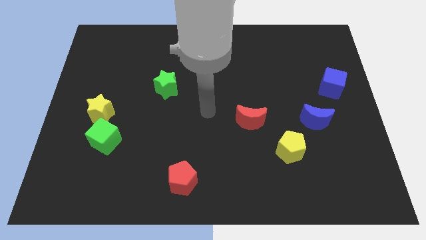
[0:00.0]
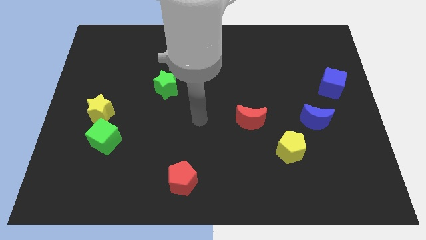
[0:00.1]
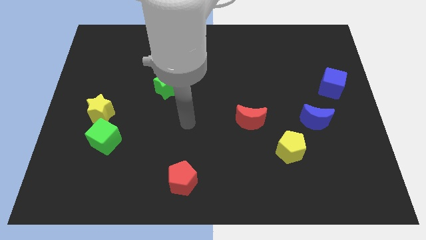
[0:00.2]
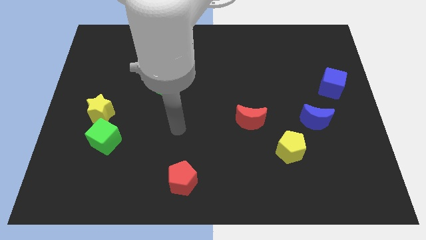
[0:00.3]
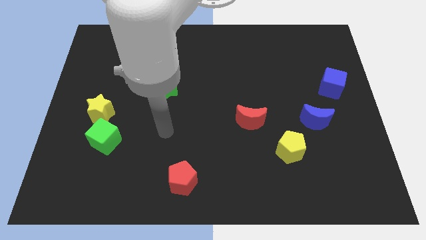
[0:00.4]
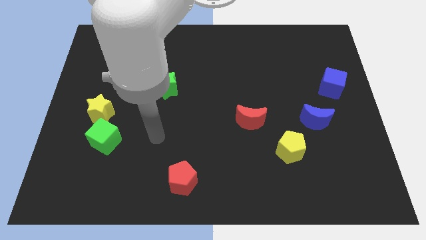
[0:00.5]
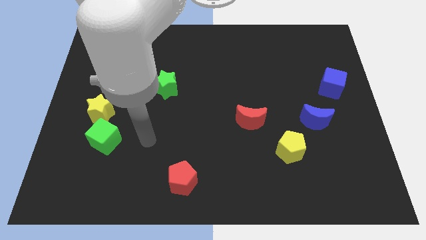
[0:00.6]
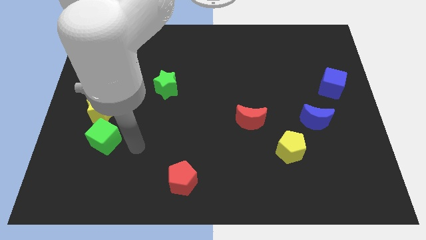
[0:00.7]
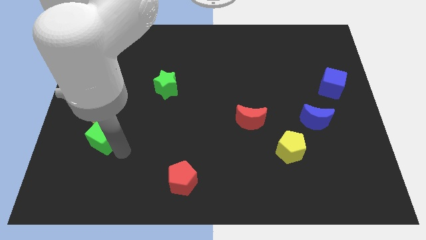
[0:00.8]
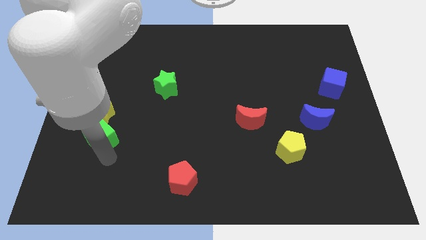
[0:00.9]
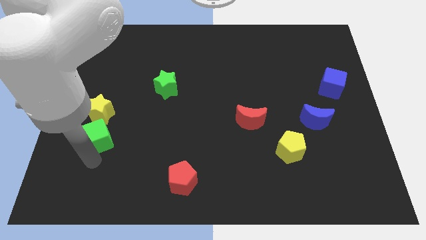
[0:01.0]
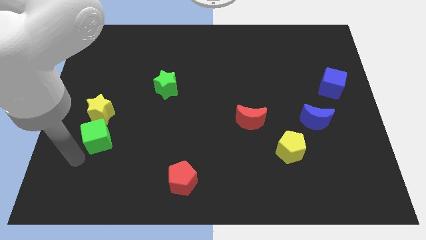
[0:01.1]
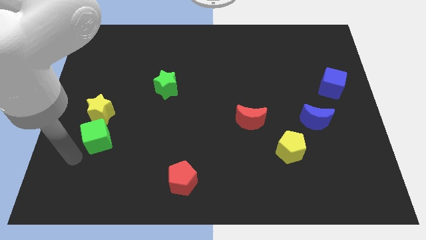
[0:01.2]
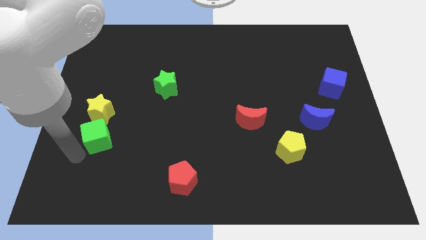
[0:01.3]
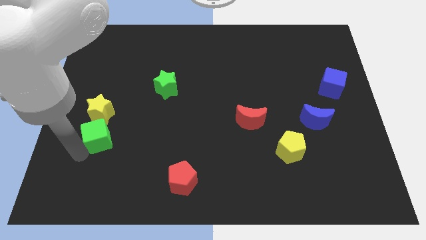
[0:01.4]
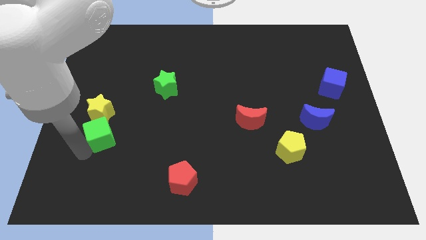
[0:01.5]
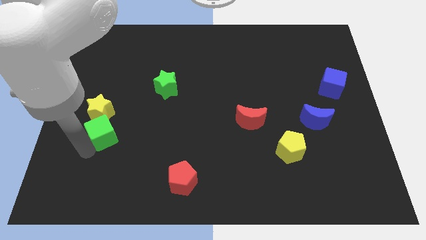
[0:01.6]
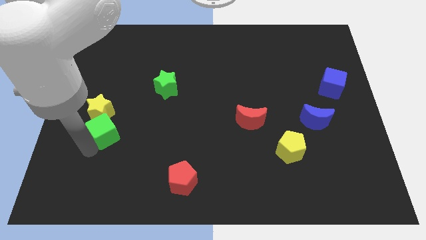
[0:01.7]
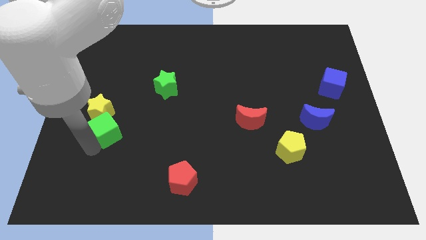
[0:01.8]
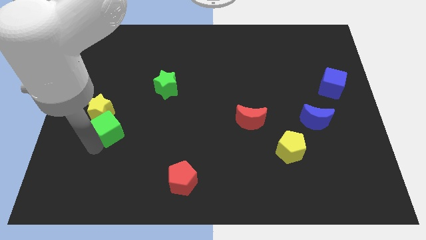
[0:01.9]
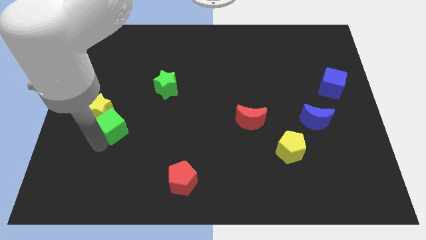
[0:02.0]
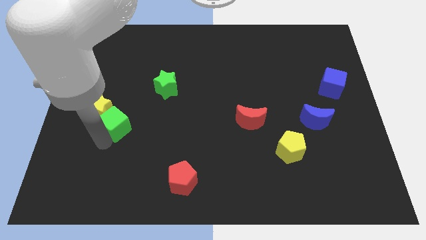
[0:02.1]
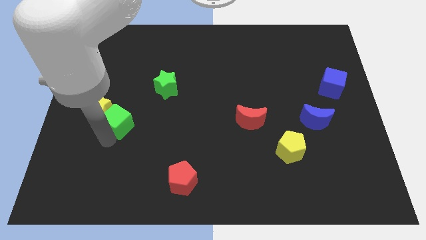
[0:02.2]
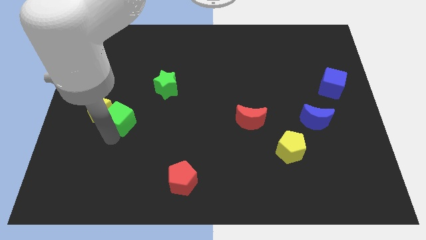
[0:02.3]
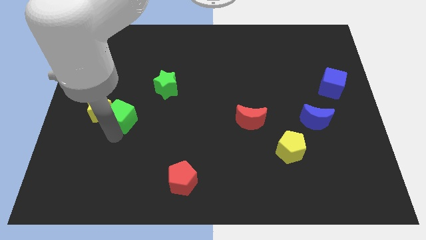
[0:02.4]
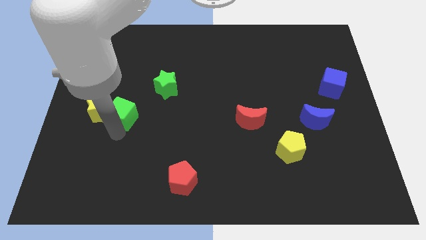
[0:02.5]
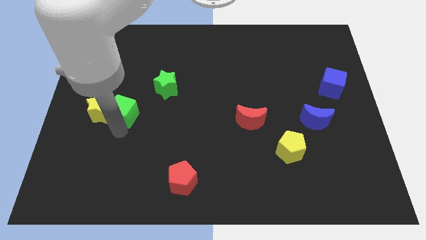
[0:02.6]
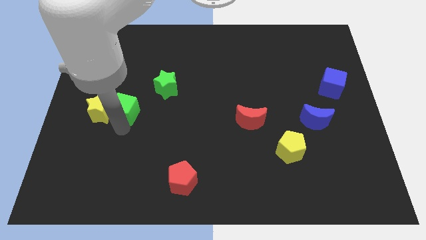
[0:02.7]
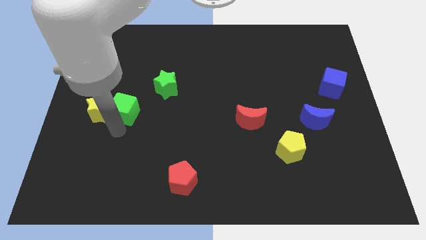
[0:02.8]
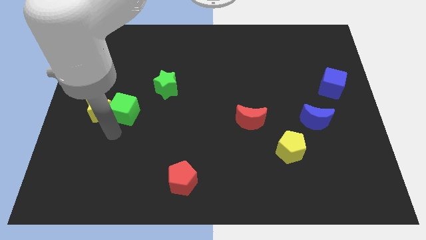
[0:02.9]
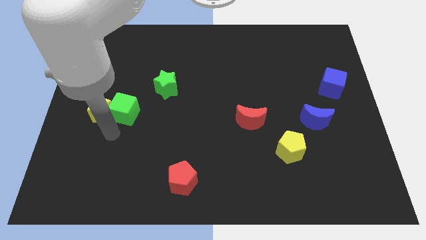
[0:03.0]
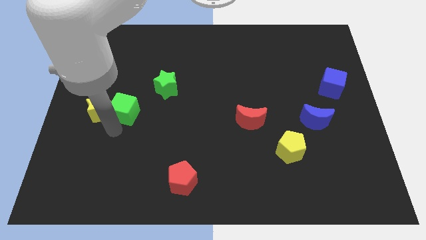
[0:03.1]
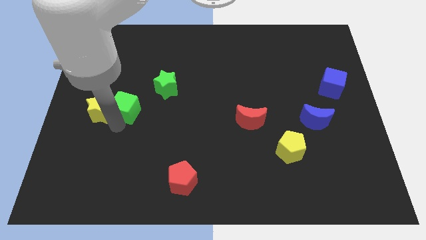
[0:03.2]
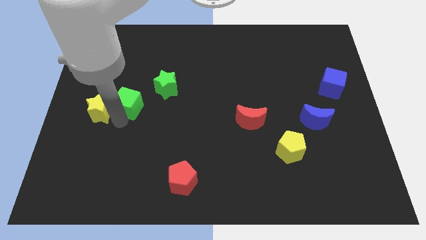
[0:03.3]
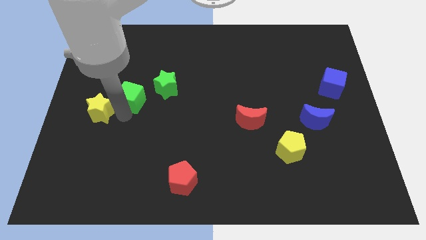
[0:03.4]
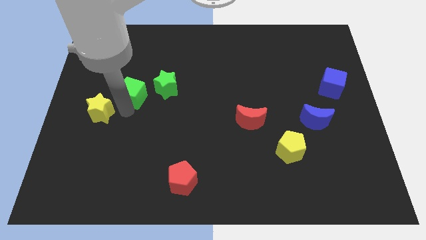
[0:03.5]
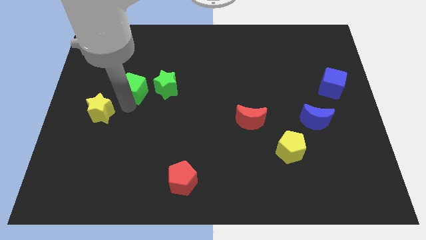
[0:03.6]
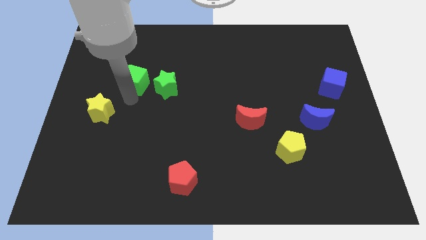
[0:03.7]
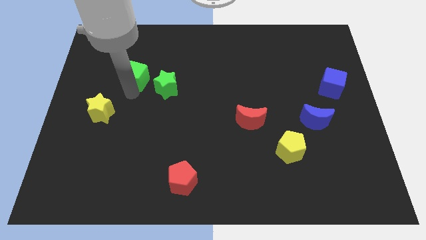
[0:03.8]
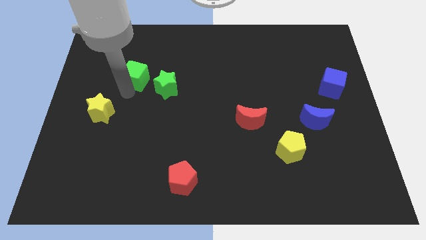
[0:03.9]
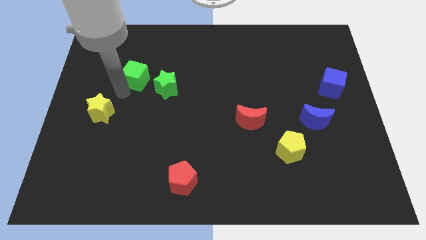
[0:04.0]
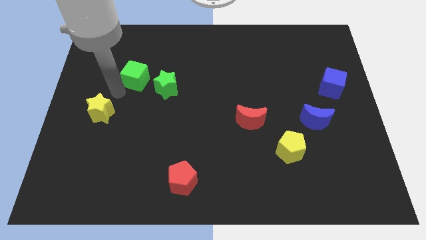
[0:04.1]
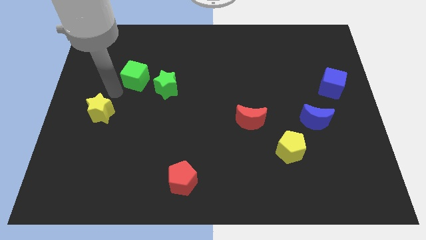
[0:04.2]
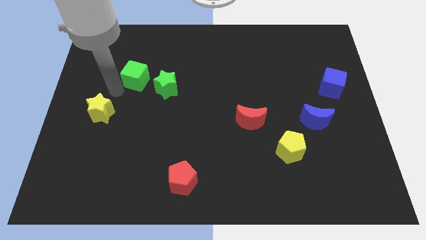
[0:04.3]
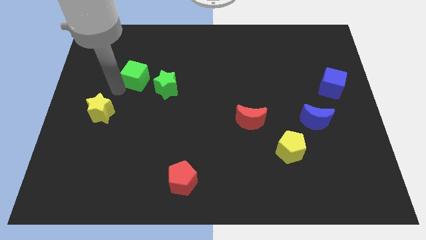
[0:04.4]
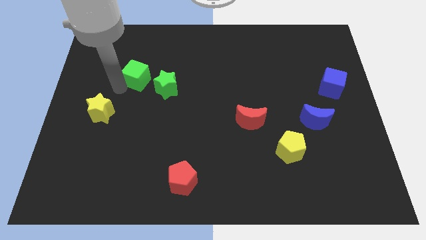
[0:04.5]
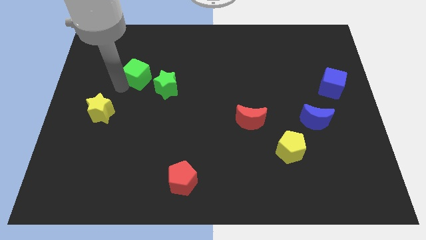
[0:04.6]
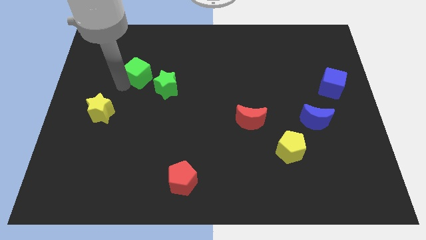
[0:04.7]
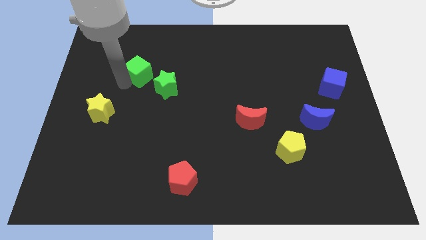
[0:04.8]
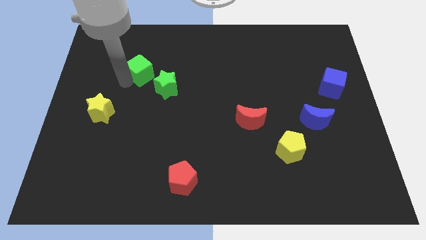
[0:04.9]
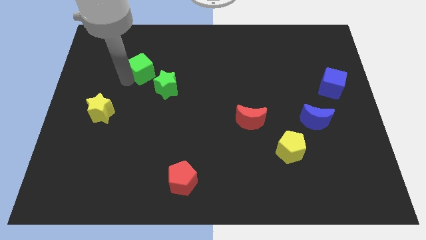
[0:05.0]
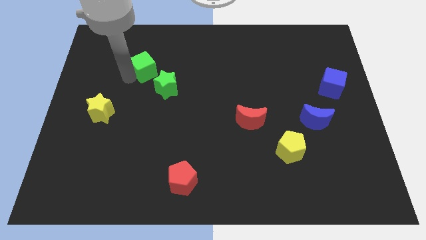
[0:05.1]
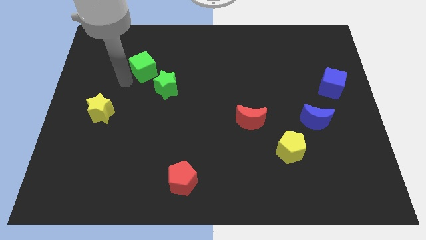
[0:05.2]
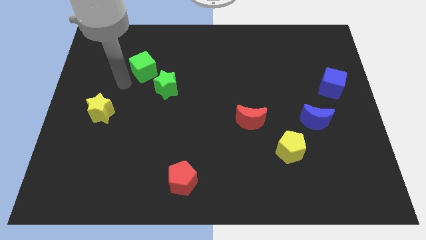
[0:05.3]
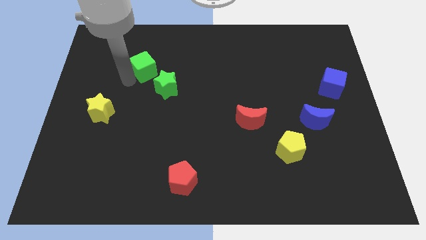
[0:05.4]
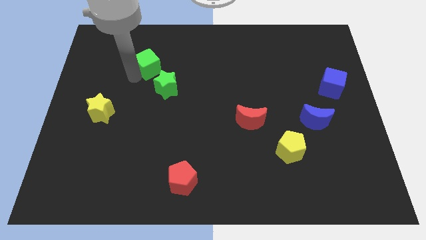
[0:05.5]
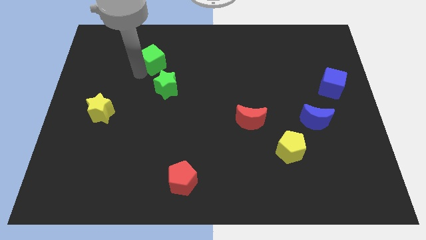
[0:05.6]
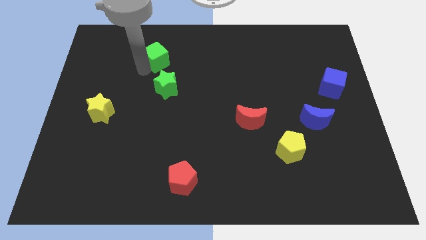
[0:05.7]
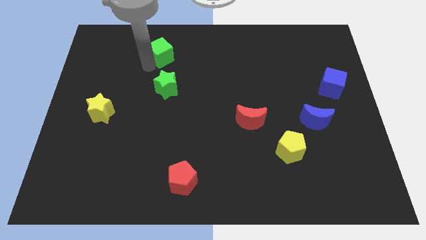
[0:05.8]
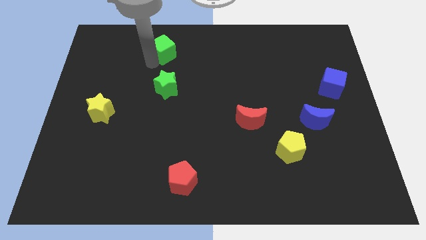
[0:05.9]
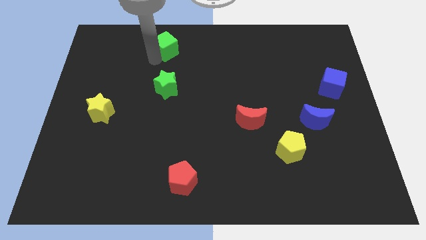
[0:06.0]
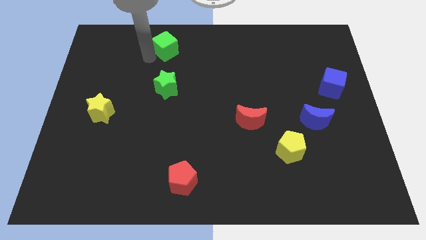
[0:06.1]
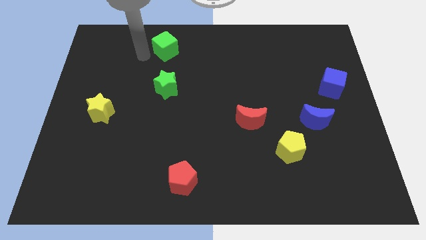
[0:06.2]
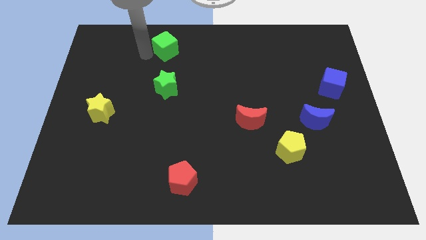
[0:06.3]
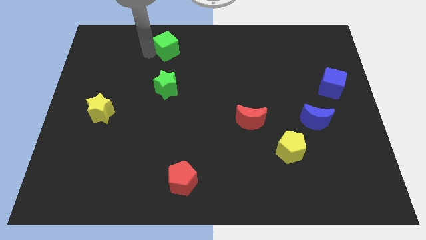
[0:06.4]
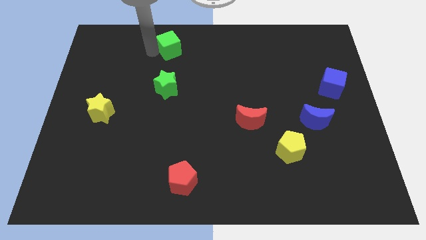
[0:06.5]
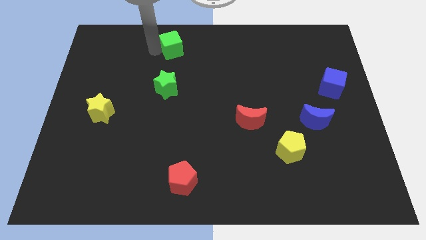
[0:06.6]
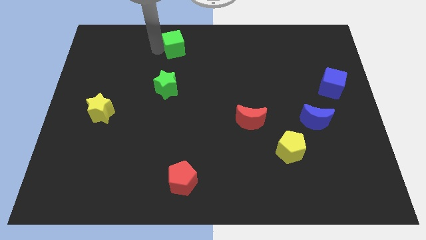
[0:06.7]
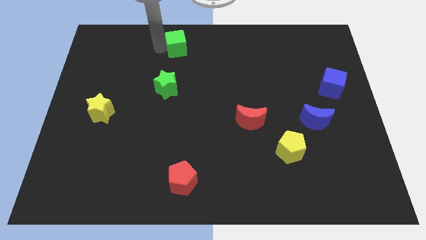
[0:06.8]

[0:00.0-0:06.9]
put the green cube to the towards your base

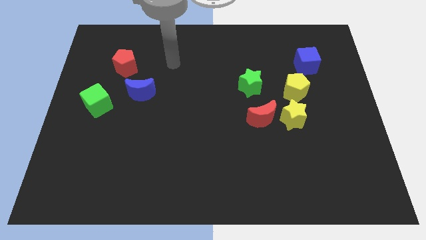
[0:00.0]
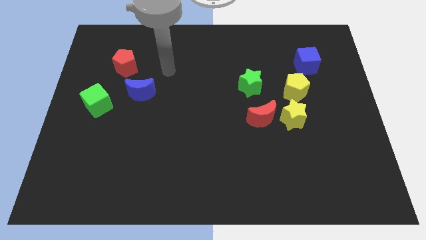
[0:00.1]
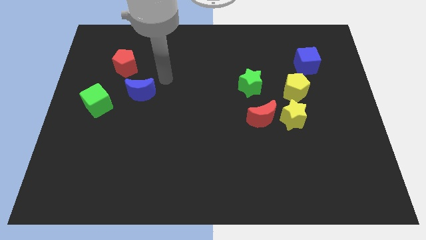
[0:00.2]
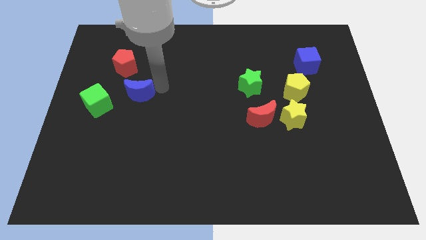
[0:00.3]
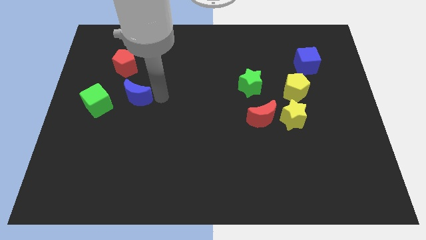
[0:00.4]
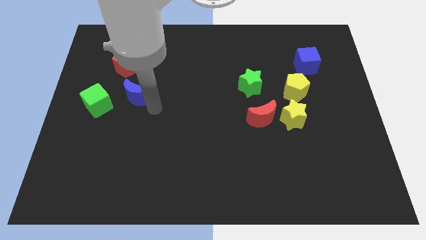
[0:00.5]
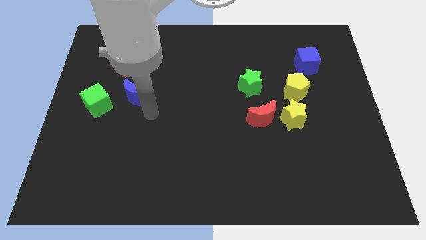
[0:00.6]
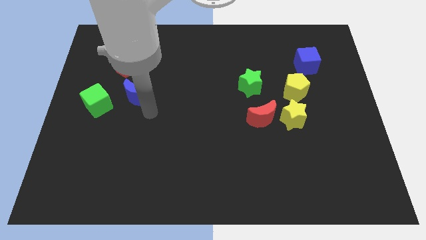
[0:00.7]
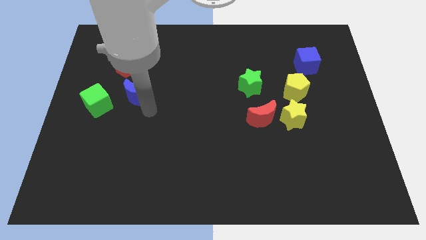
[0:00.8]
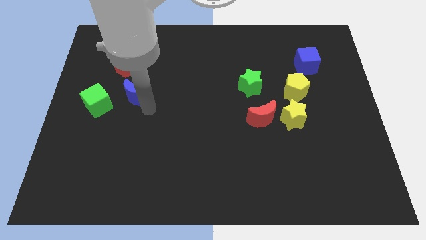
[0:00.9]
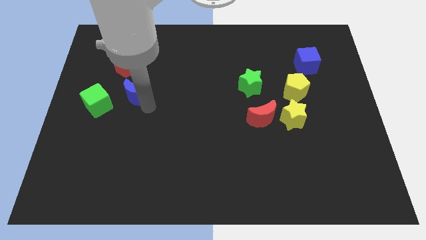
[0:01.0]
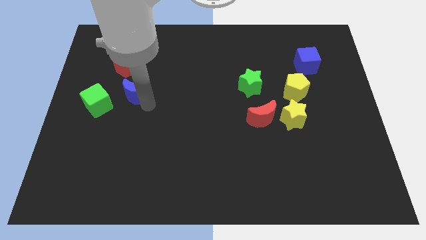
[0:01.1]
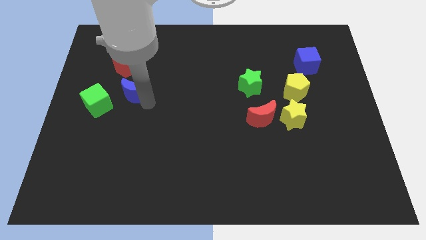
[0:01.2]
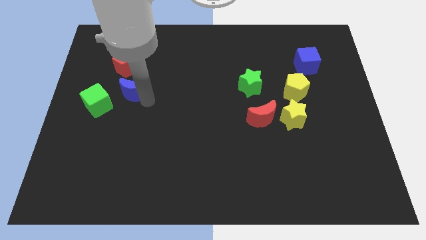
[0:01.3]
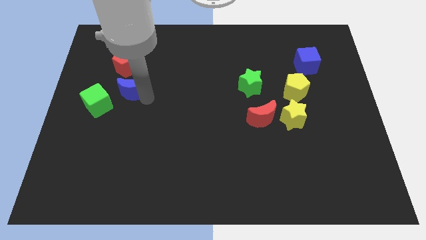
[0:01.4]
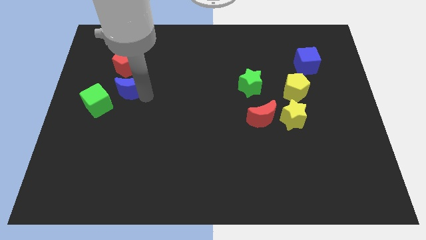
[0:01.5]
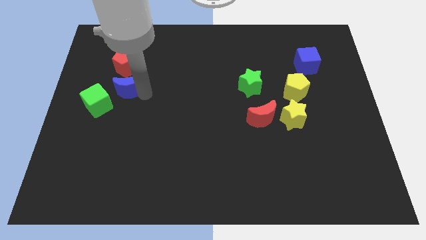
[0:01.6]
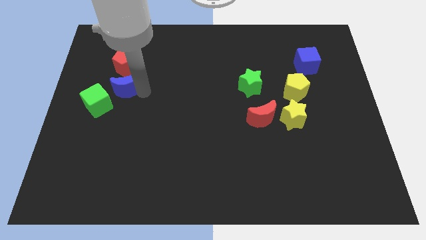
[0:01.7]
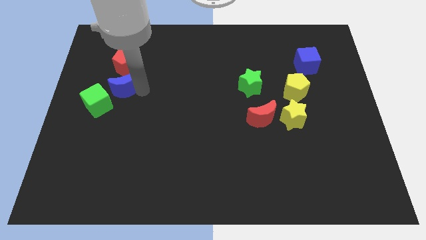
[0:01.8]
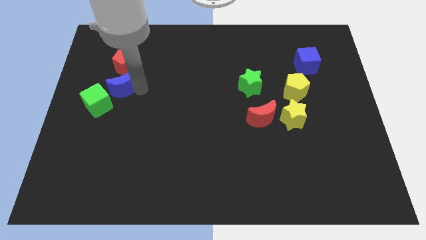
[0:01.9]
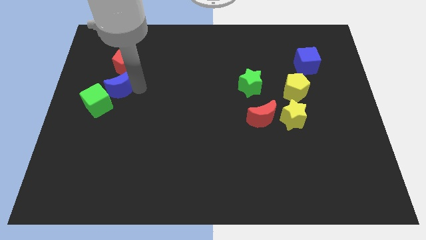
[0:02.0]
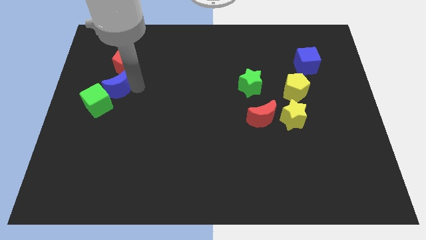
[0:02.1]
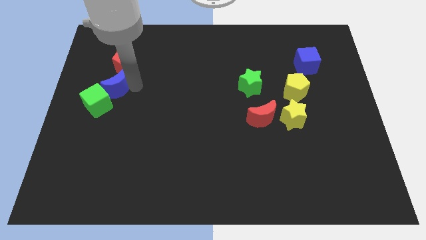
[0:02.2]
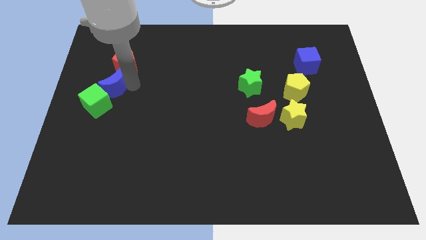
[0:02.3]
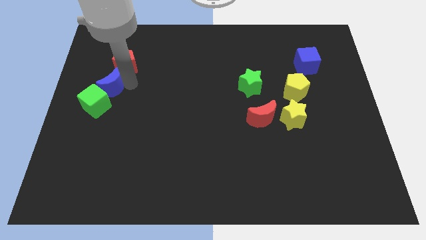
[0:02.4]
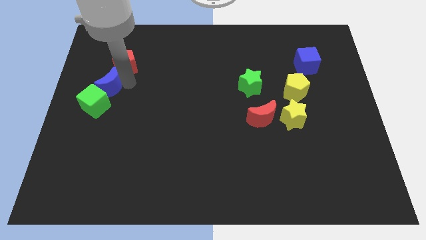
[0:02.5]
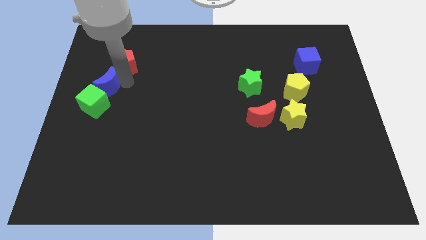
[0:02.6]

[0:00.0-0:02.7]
push the blue moon to the center left
